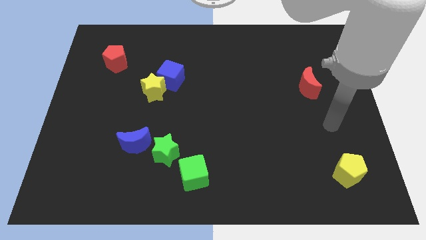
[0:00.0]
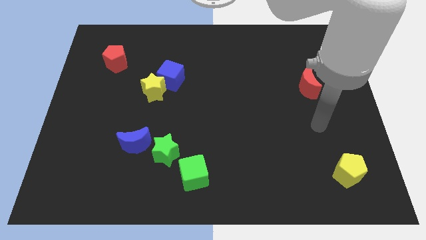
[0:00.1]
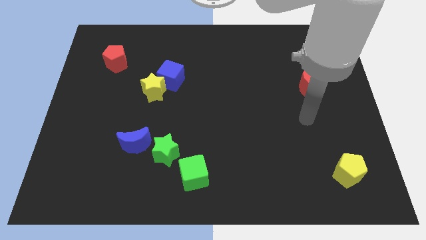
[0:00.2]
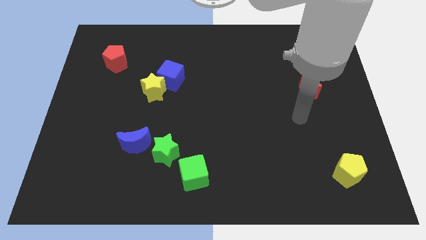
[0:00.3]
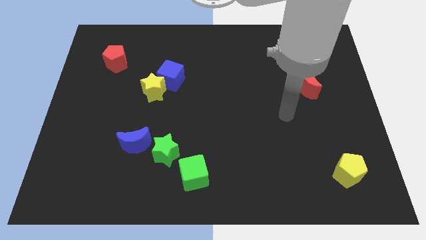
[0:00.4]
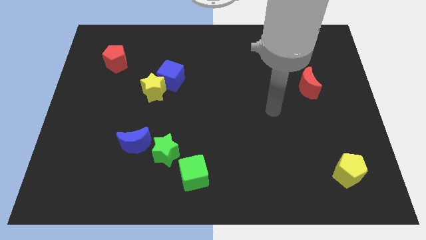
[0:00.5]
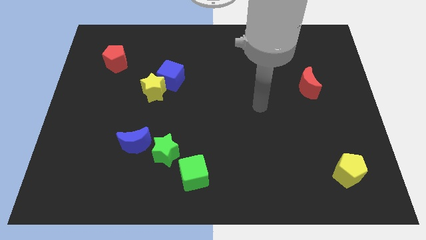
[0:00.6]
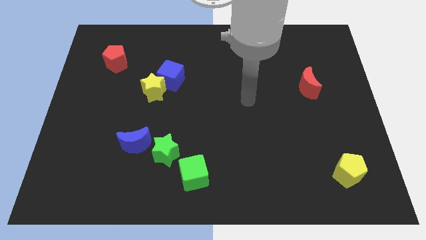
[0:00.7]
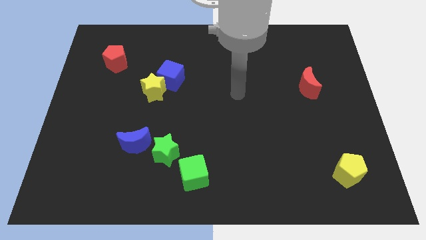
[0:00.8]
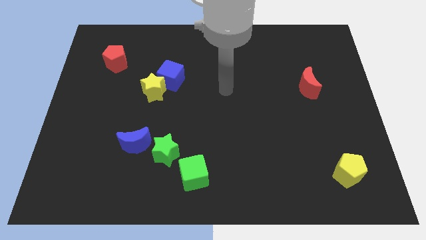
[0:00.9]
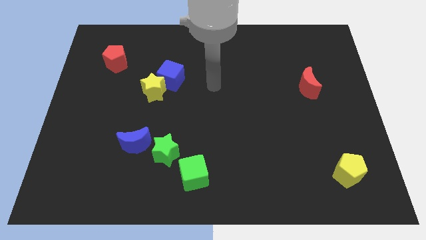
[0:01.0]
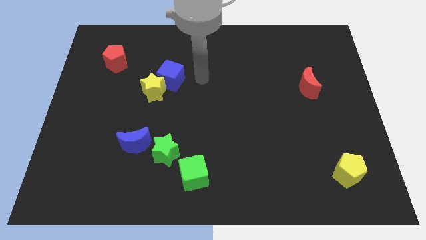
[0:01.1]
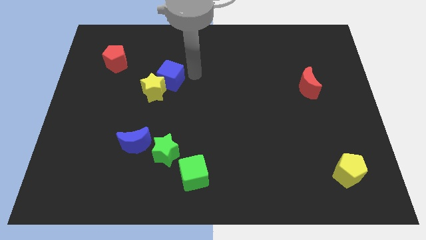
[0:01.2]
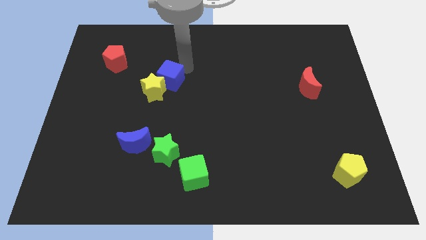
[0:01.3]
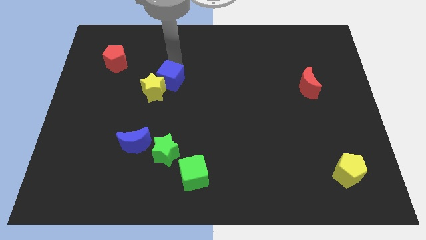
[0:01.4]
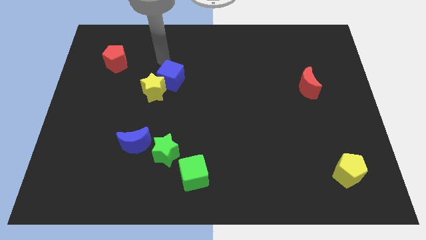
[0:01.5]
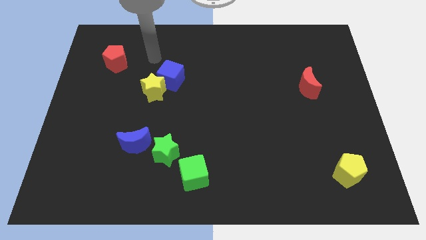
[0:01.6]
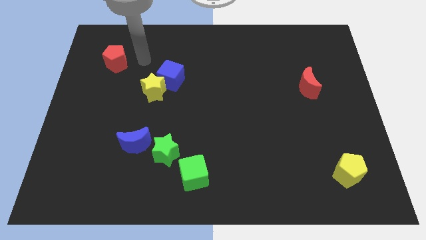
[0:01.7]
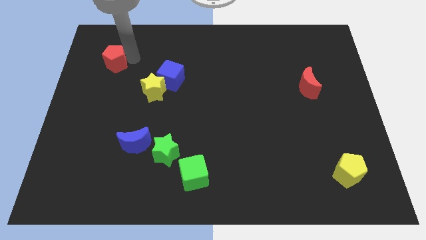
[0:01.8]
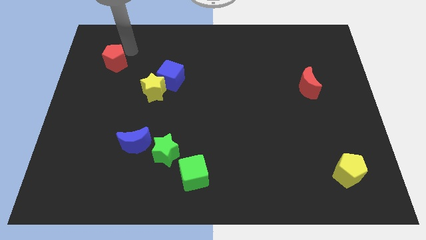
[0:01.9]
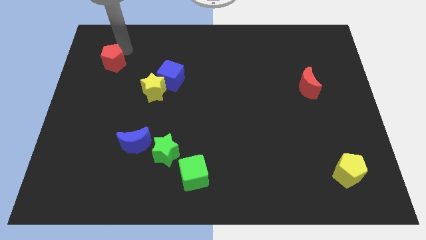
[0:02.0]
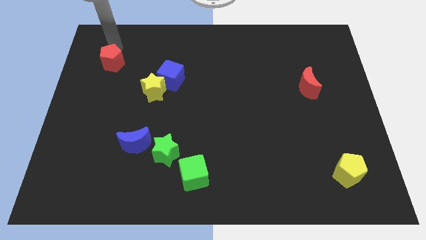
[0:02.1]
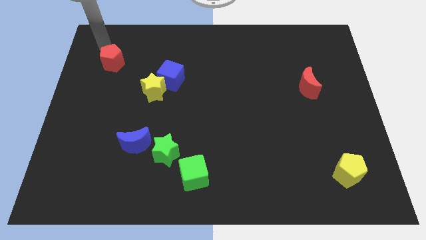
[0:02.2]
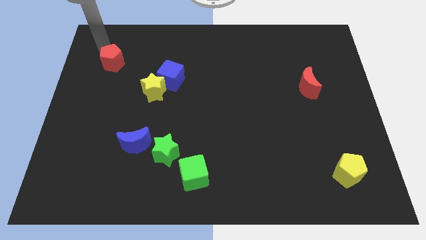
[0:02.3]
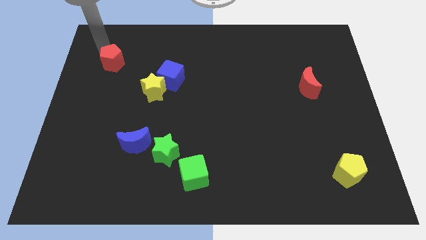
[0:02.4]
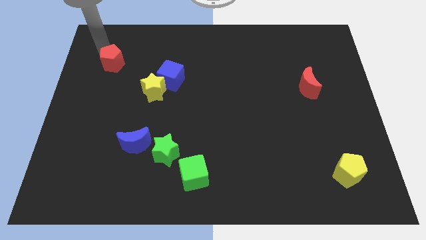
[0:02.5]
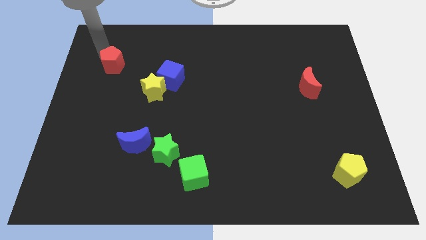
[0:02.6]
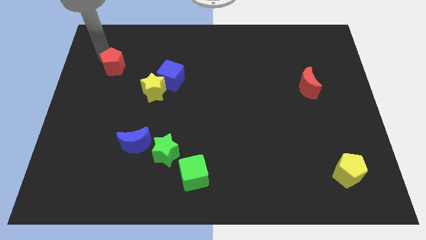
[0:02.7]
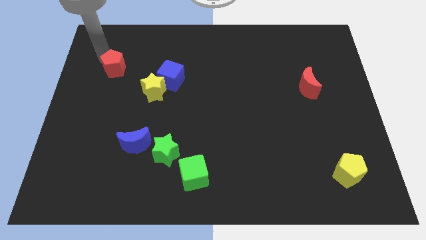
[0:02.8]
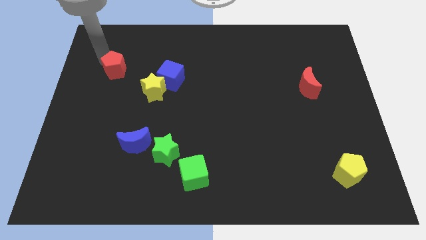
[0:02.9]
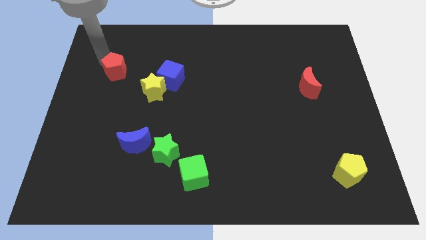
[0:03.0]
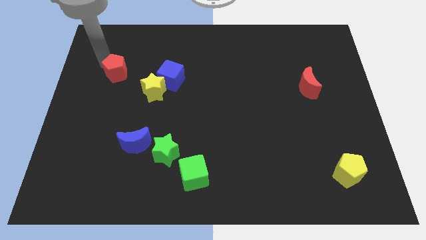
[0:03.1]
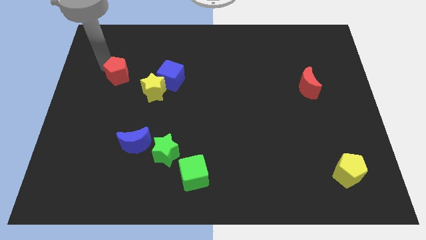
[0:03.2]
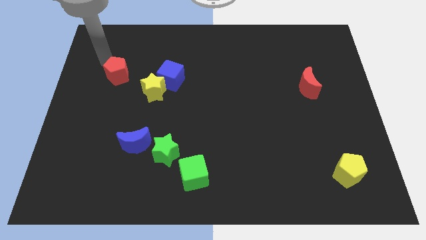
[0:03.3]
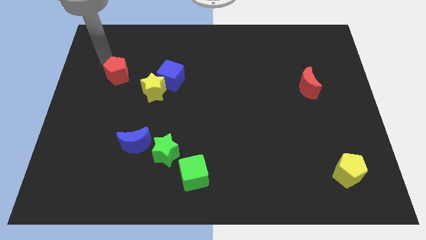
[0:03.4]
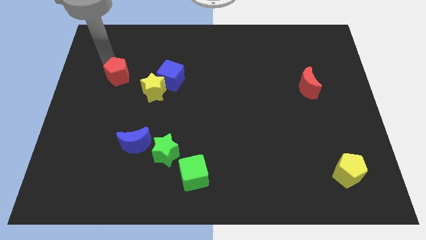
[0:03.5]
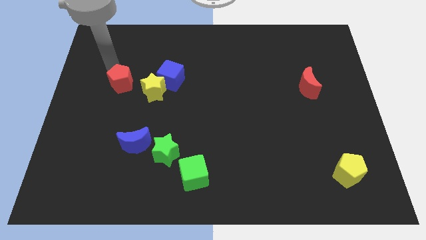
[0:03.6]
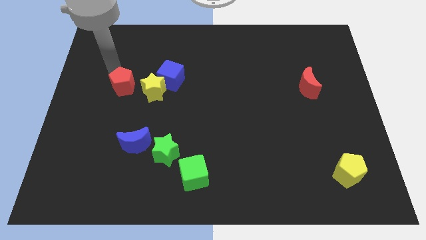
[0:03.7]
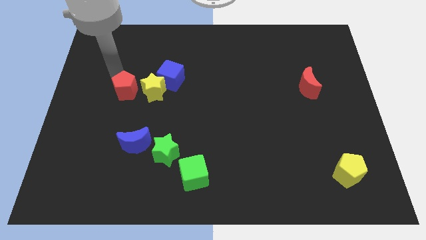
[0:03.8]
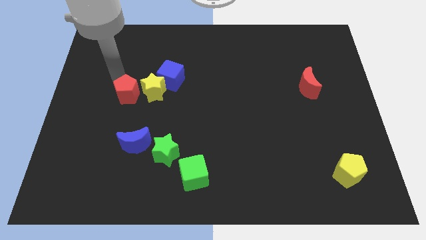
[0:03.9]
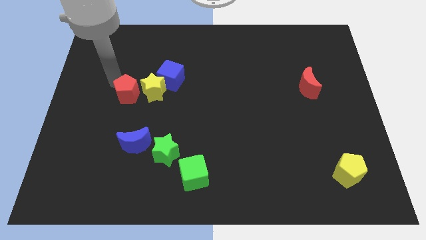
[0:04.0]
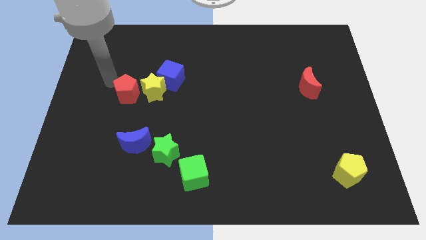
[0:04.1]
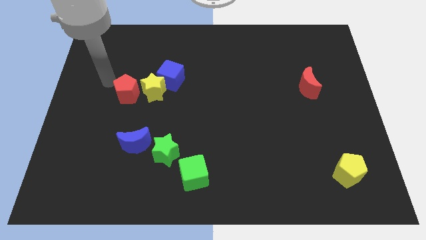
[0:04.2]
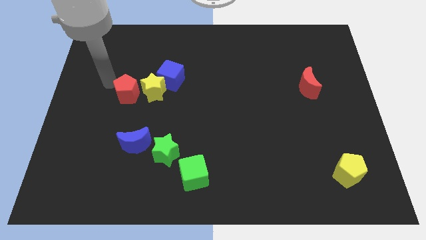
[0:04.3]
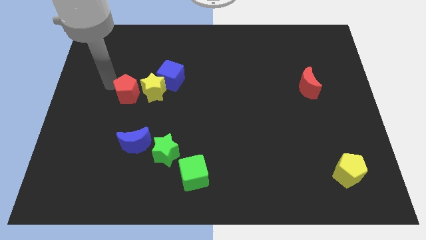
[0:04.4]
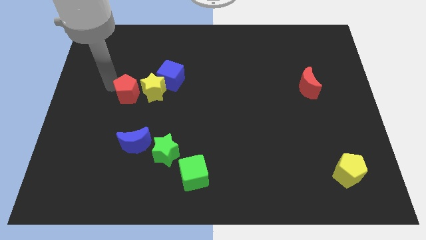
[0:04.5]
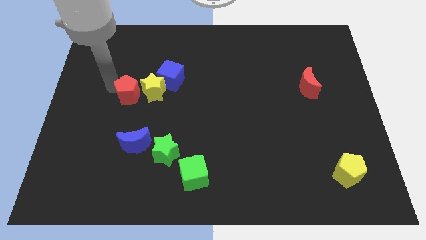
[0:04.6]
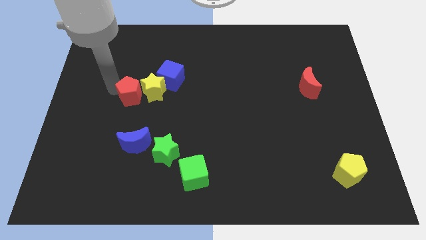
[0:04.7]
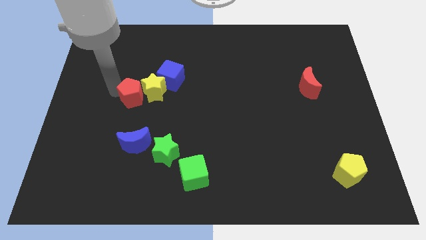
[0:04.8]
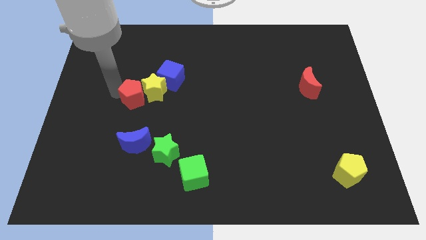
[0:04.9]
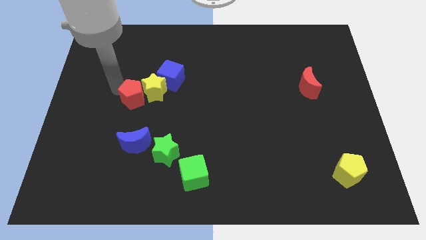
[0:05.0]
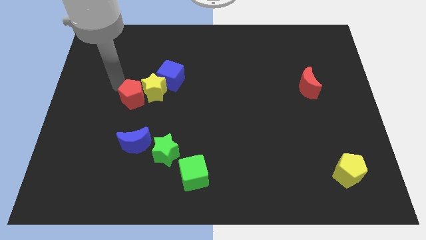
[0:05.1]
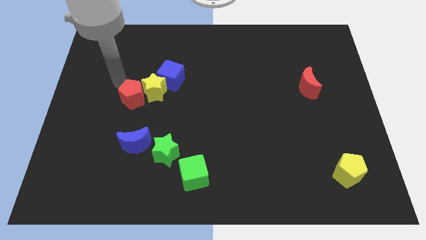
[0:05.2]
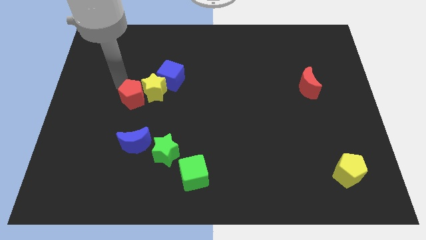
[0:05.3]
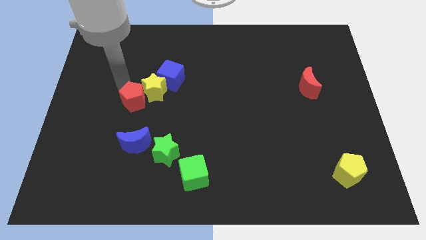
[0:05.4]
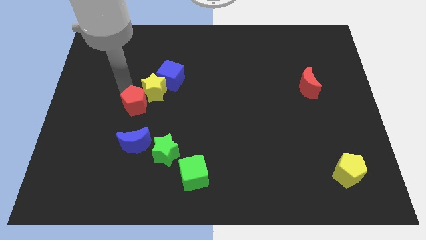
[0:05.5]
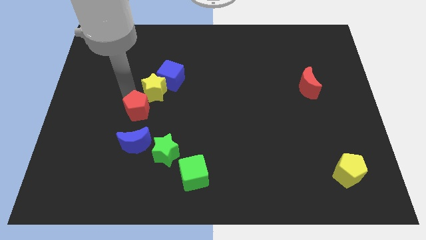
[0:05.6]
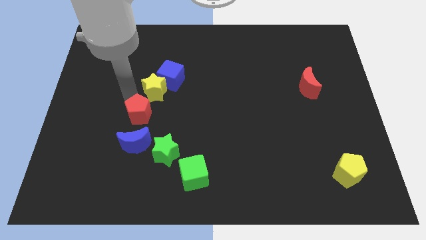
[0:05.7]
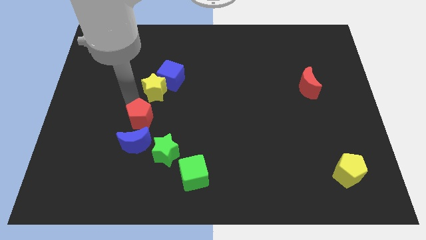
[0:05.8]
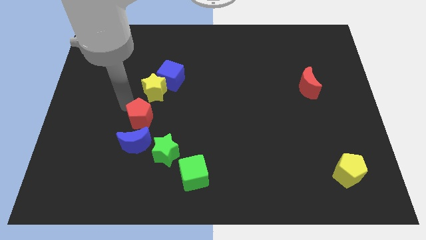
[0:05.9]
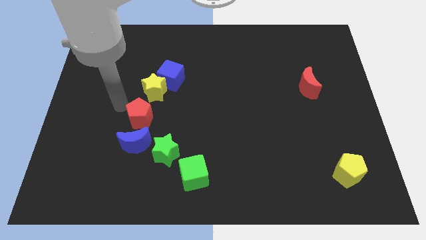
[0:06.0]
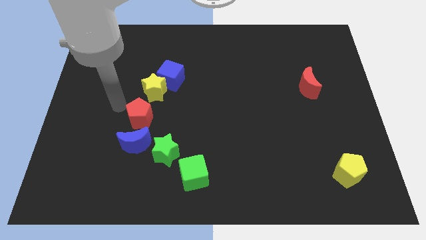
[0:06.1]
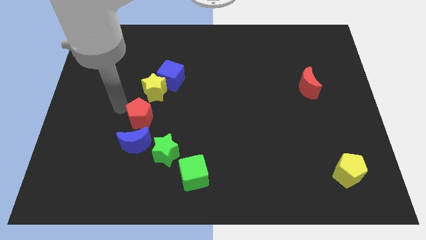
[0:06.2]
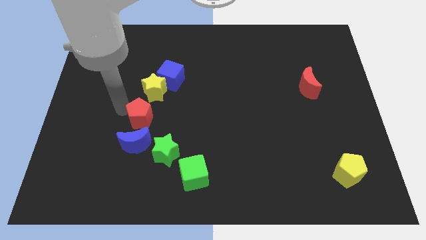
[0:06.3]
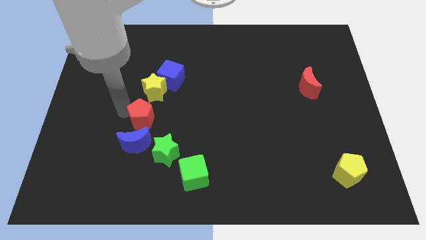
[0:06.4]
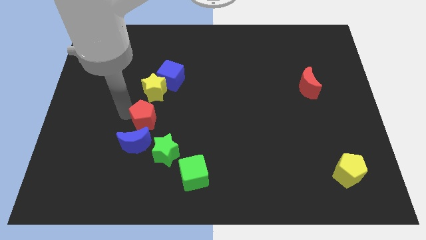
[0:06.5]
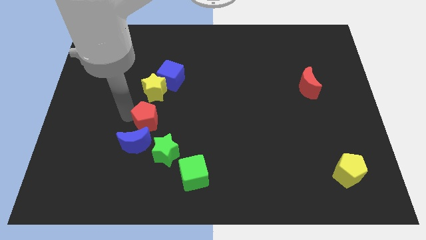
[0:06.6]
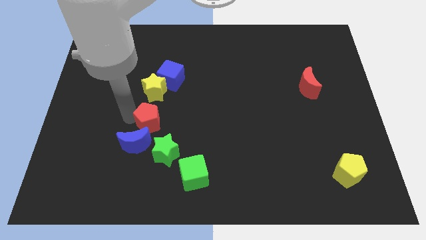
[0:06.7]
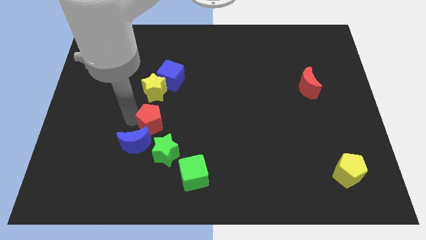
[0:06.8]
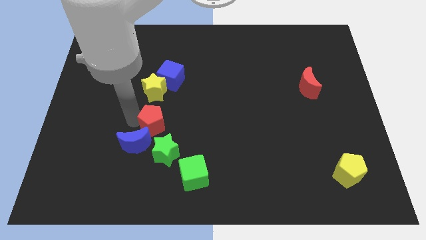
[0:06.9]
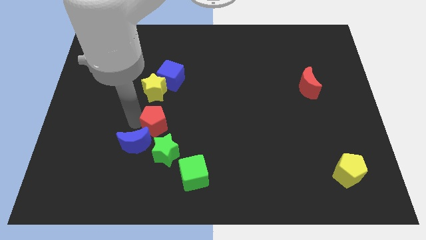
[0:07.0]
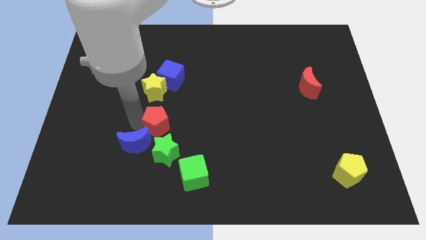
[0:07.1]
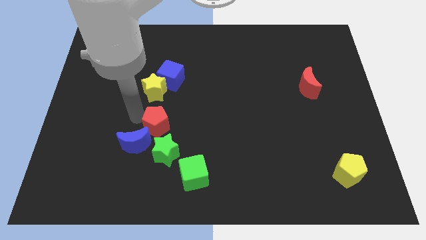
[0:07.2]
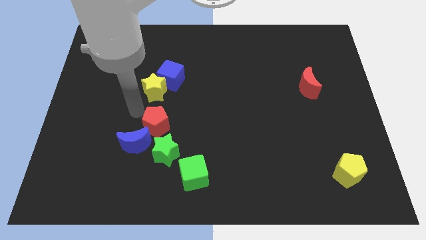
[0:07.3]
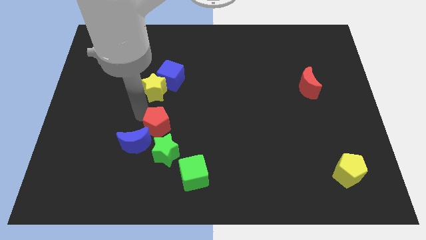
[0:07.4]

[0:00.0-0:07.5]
push the red pentagon to the right side of the blue moon
